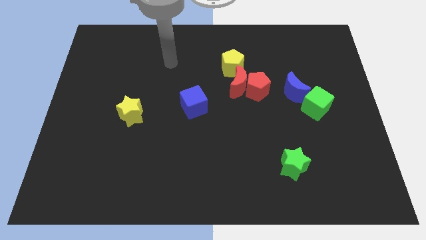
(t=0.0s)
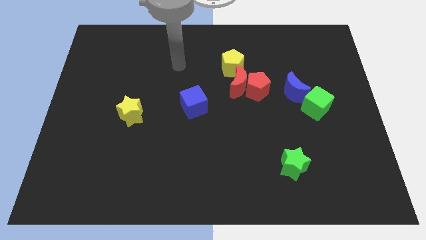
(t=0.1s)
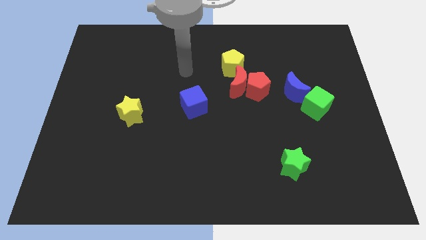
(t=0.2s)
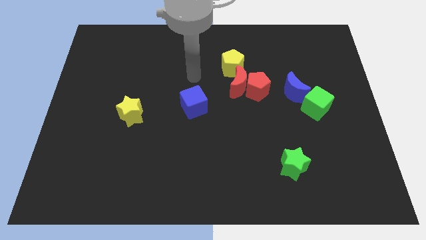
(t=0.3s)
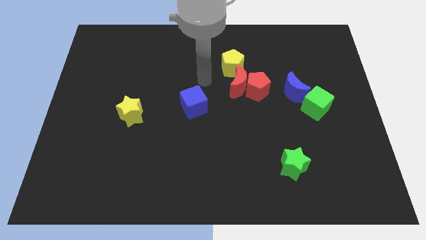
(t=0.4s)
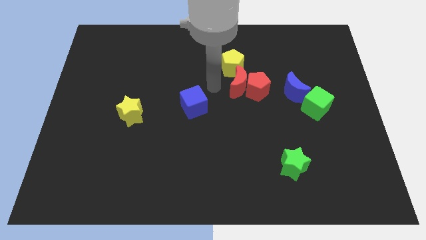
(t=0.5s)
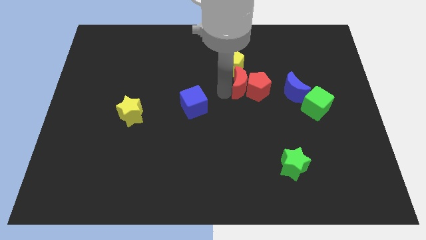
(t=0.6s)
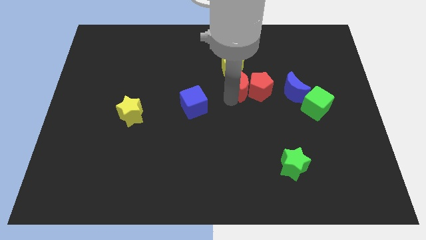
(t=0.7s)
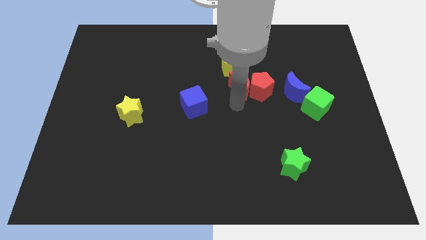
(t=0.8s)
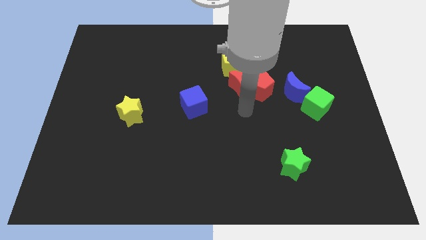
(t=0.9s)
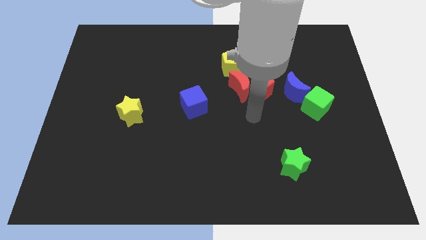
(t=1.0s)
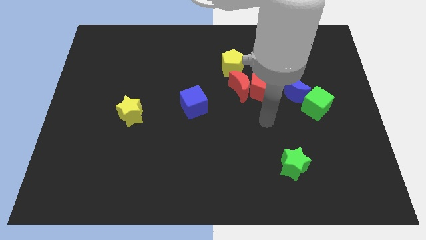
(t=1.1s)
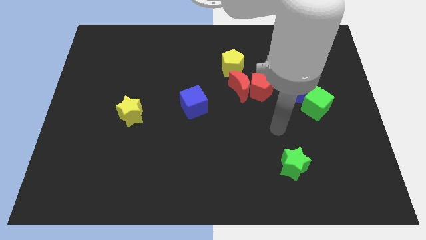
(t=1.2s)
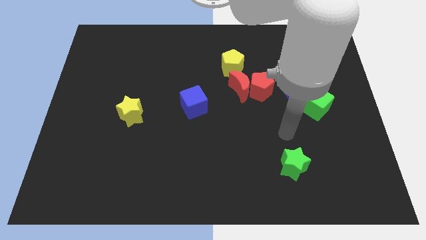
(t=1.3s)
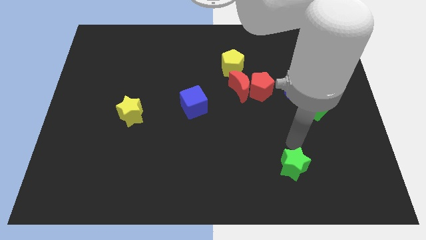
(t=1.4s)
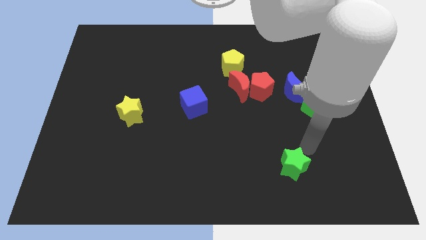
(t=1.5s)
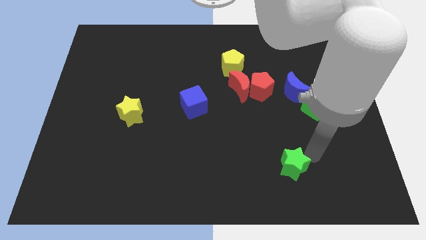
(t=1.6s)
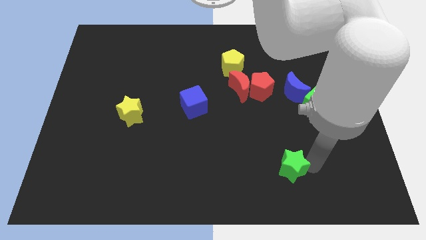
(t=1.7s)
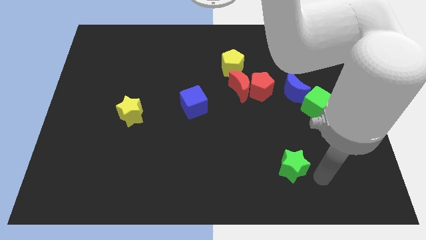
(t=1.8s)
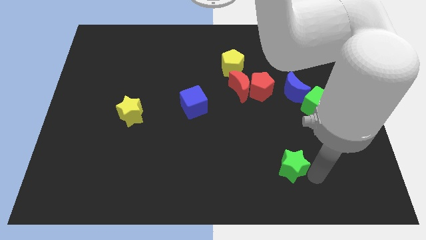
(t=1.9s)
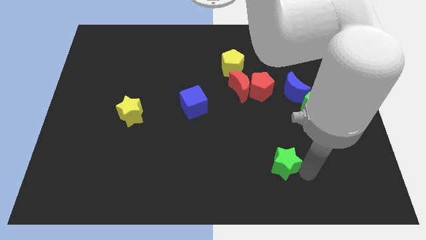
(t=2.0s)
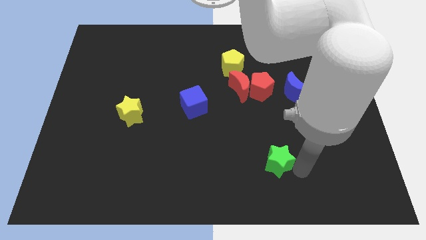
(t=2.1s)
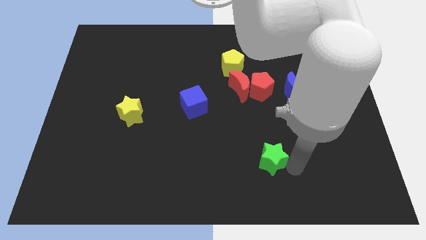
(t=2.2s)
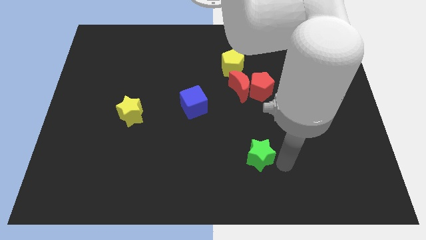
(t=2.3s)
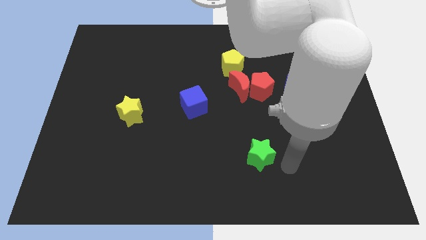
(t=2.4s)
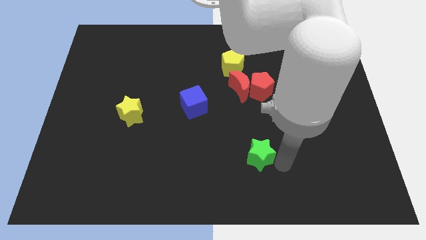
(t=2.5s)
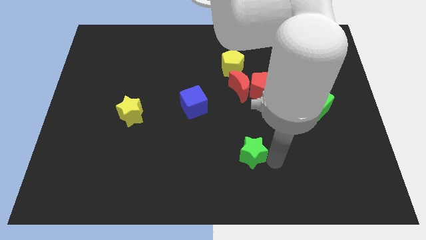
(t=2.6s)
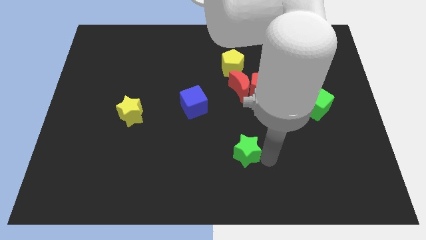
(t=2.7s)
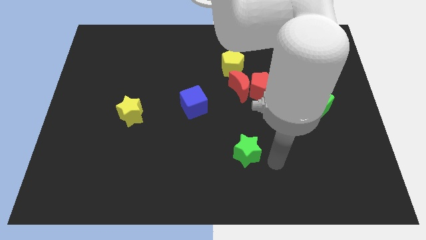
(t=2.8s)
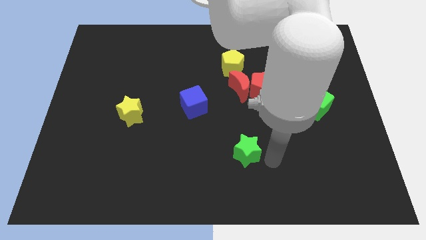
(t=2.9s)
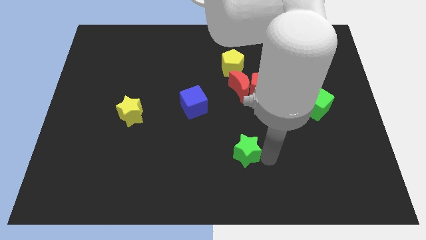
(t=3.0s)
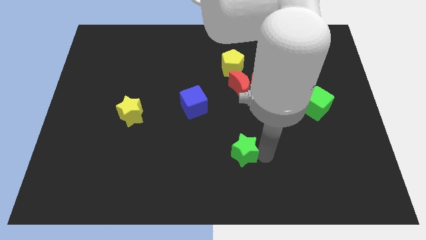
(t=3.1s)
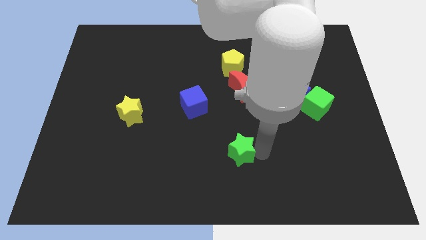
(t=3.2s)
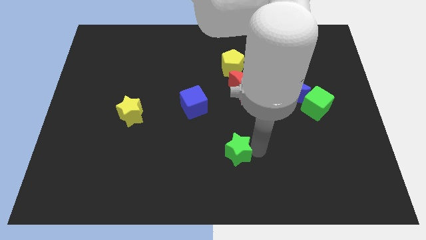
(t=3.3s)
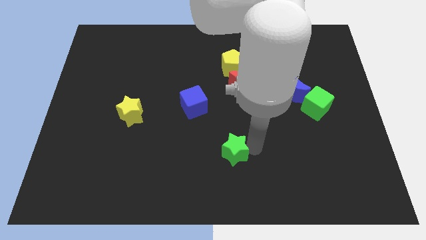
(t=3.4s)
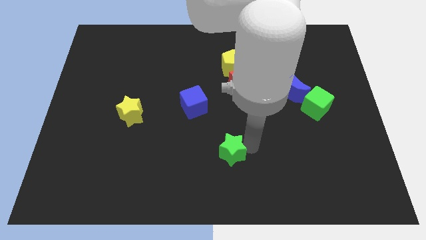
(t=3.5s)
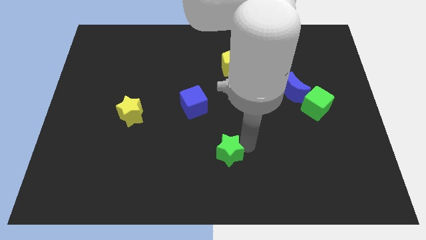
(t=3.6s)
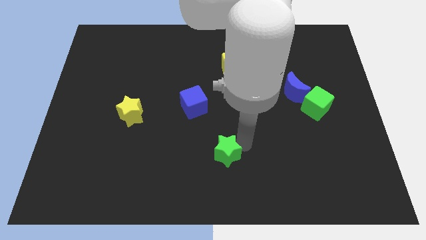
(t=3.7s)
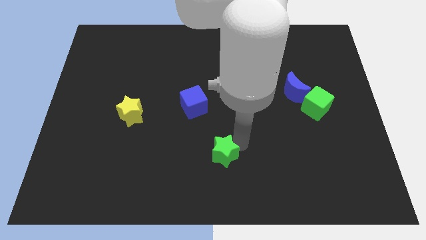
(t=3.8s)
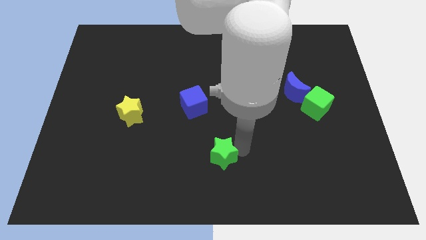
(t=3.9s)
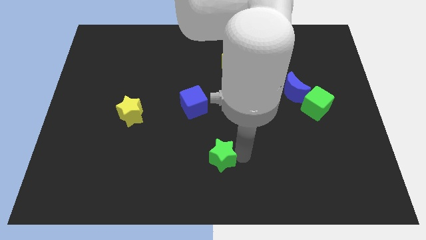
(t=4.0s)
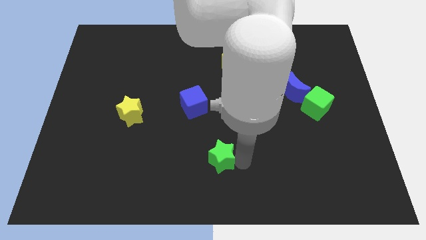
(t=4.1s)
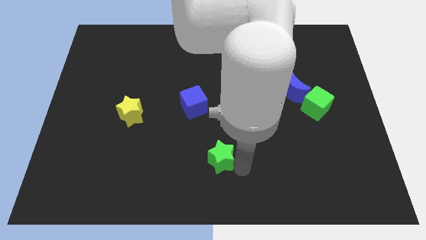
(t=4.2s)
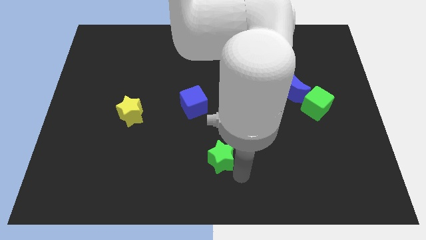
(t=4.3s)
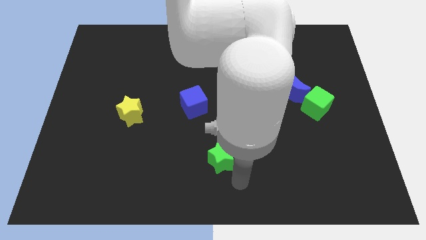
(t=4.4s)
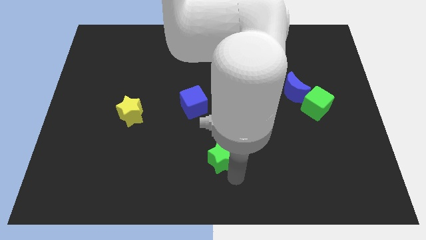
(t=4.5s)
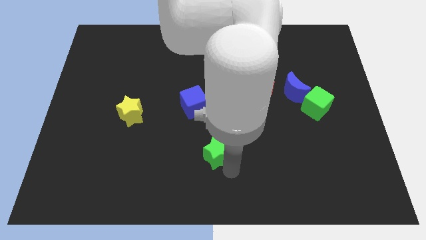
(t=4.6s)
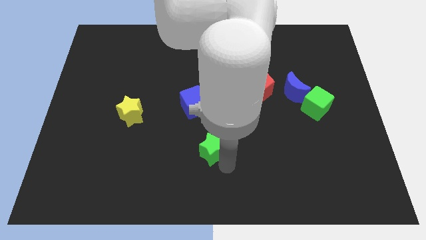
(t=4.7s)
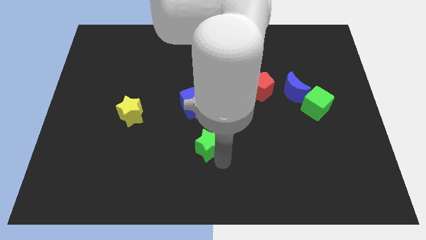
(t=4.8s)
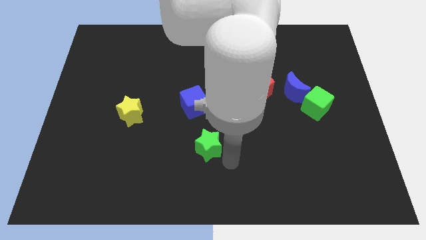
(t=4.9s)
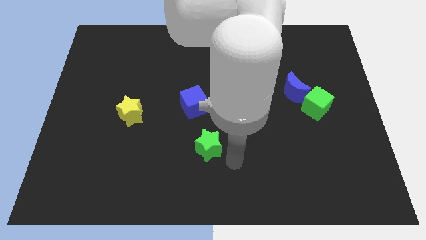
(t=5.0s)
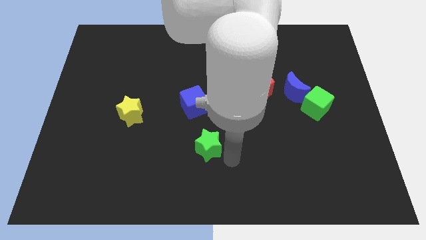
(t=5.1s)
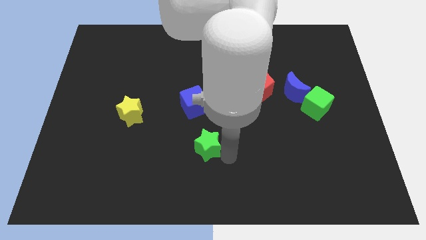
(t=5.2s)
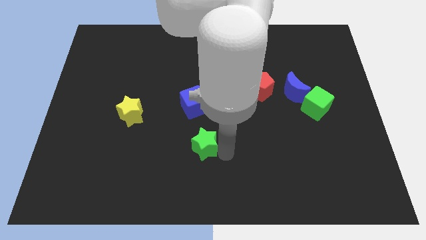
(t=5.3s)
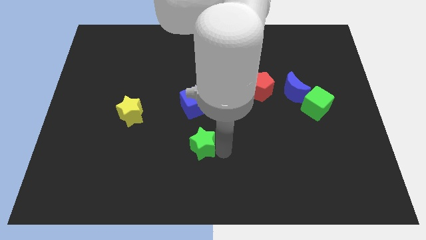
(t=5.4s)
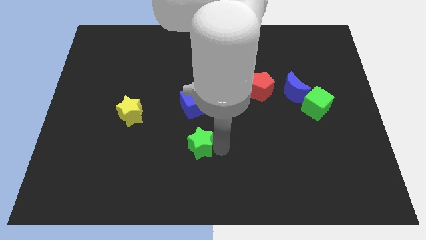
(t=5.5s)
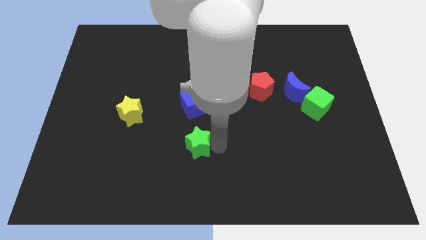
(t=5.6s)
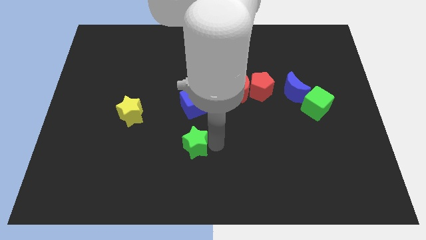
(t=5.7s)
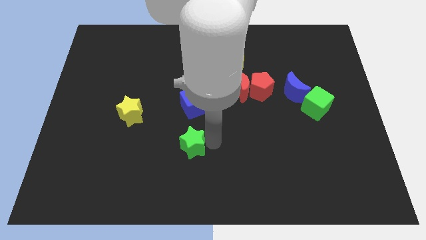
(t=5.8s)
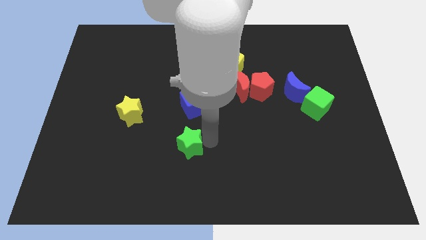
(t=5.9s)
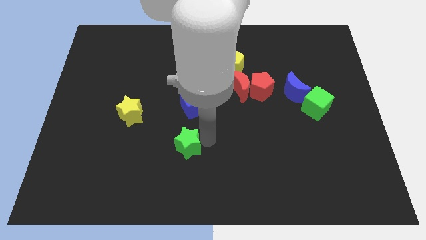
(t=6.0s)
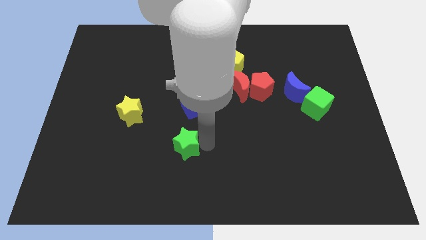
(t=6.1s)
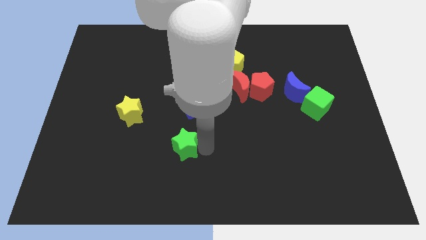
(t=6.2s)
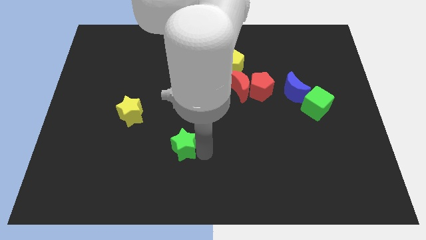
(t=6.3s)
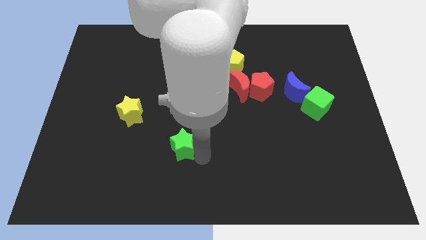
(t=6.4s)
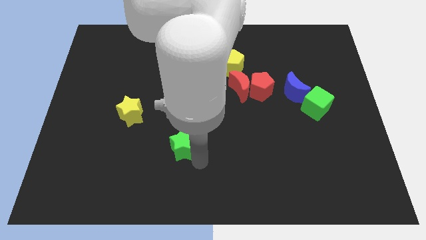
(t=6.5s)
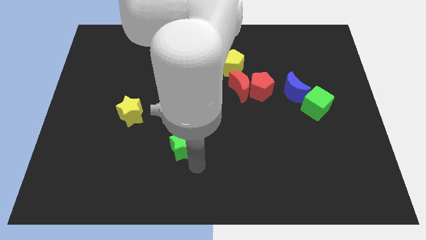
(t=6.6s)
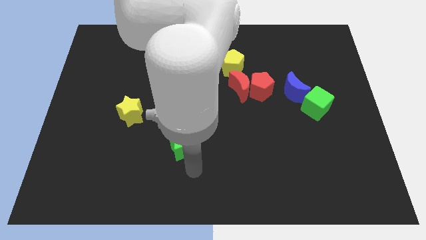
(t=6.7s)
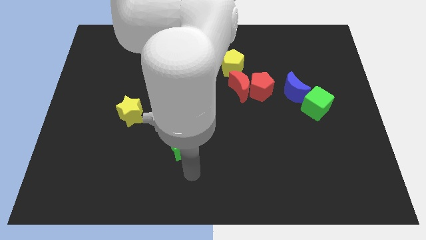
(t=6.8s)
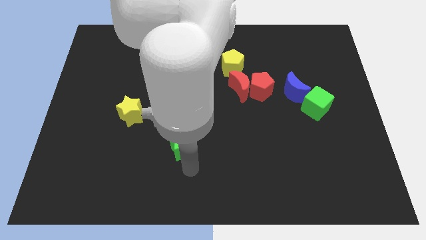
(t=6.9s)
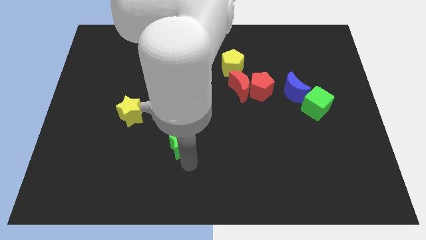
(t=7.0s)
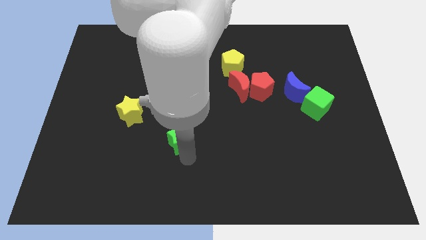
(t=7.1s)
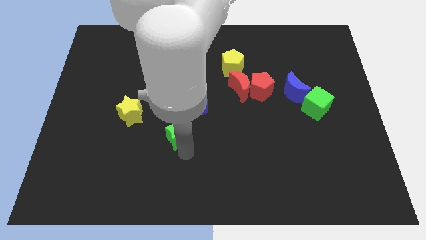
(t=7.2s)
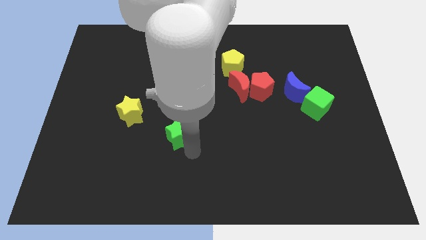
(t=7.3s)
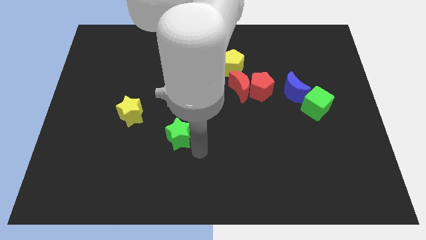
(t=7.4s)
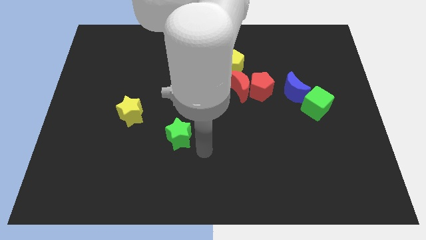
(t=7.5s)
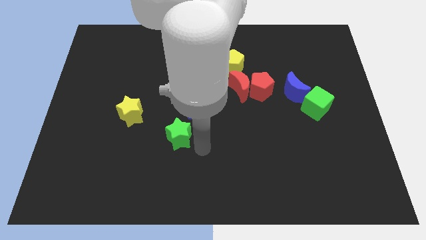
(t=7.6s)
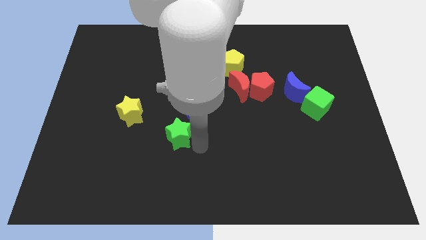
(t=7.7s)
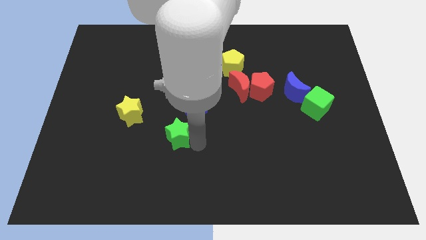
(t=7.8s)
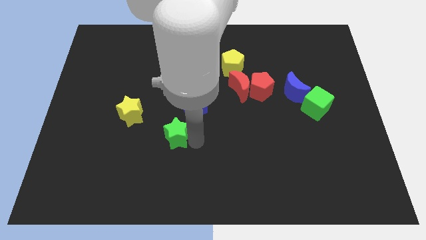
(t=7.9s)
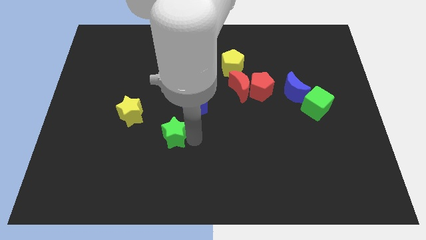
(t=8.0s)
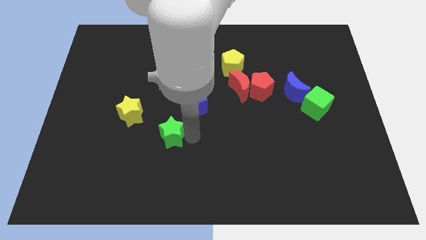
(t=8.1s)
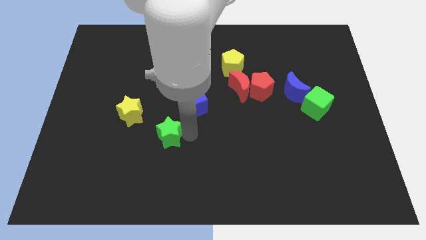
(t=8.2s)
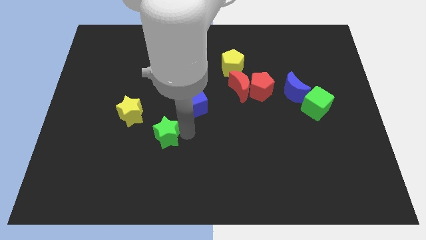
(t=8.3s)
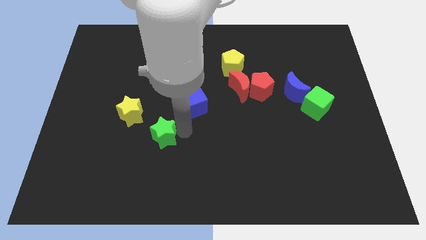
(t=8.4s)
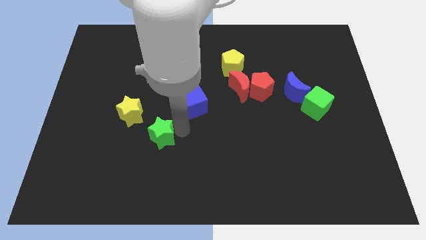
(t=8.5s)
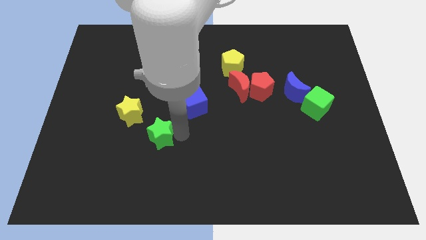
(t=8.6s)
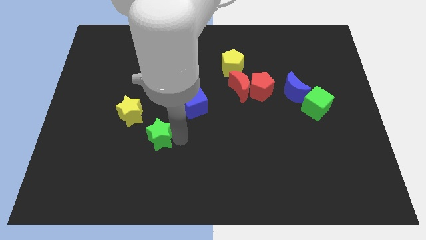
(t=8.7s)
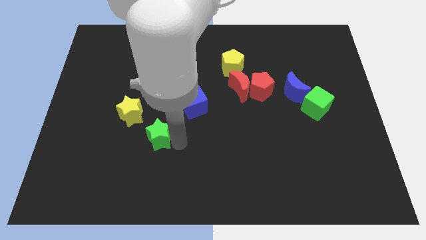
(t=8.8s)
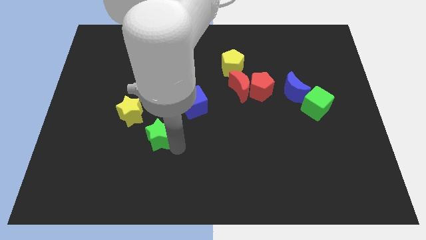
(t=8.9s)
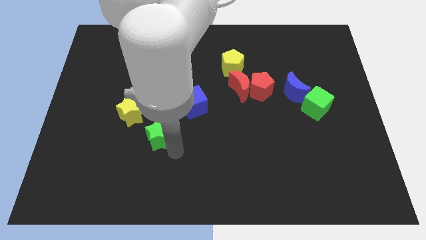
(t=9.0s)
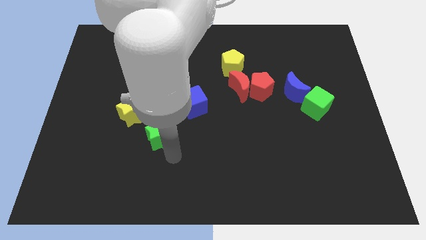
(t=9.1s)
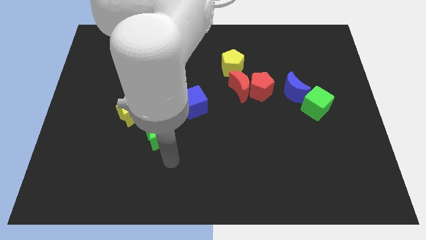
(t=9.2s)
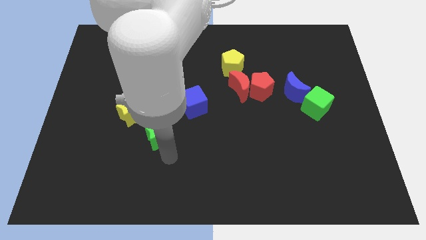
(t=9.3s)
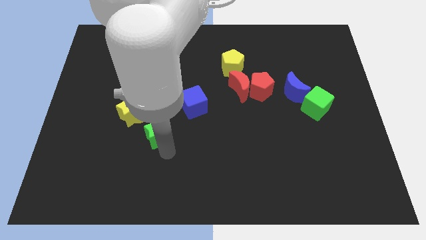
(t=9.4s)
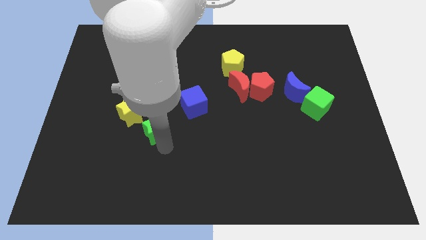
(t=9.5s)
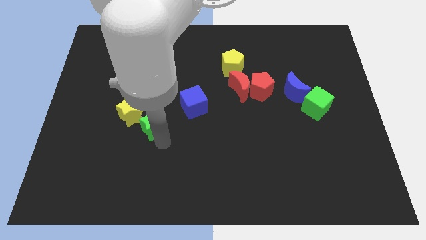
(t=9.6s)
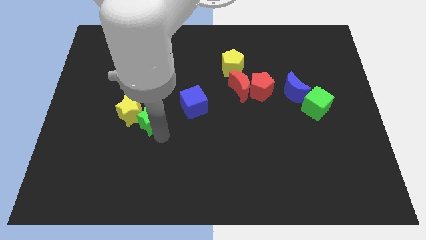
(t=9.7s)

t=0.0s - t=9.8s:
move the green star to the yellow star
